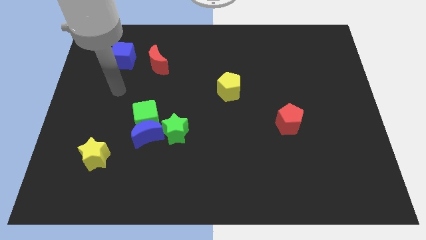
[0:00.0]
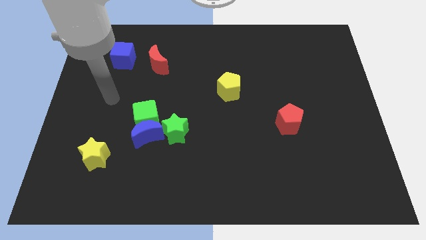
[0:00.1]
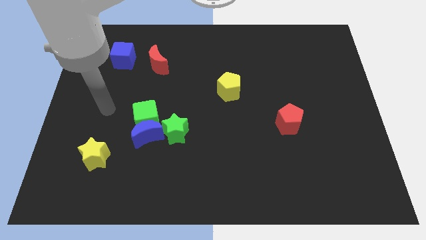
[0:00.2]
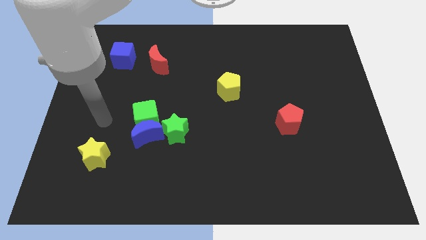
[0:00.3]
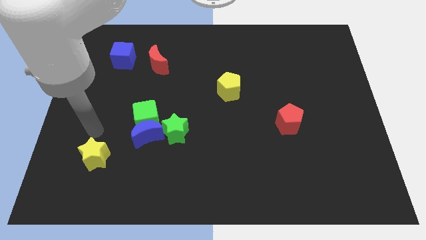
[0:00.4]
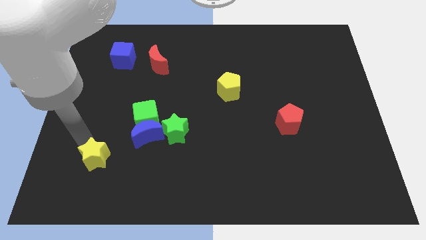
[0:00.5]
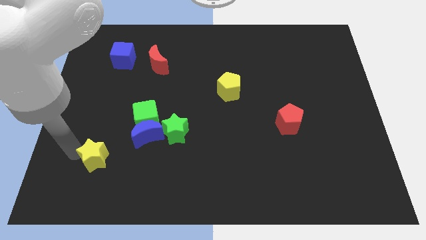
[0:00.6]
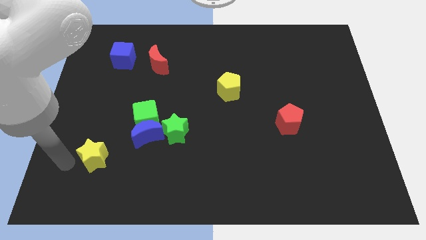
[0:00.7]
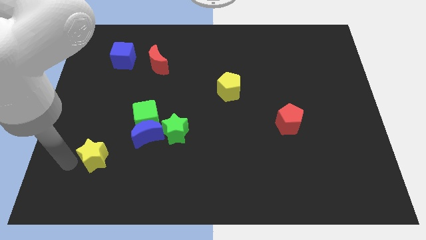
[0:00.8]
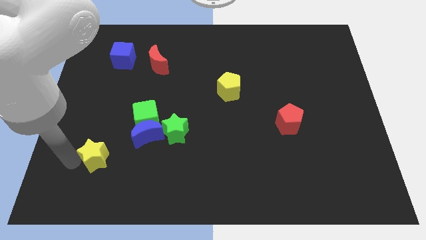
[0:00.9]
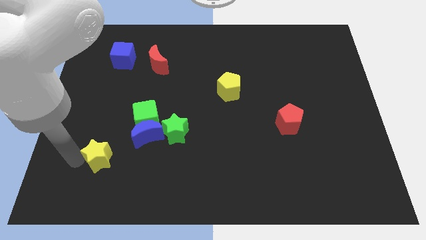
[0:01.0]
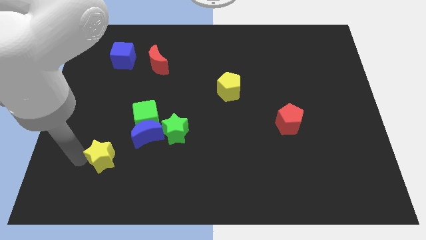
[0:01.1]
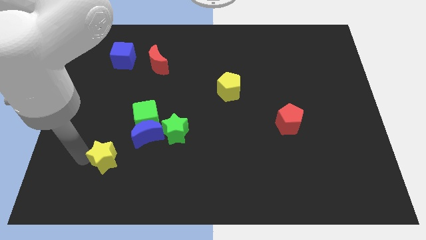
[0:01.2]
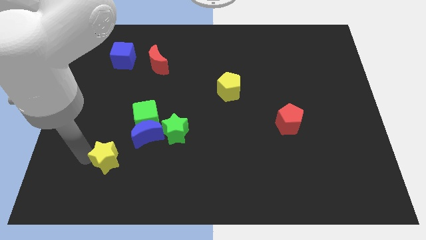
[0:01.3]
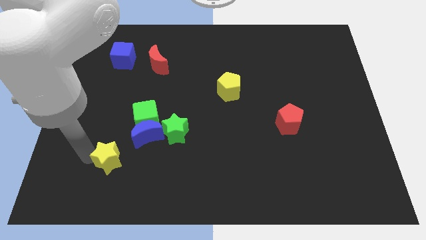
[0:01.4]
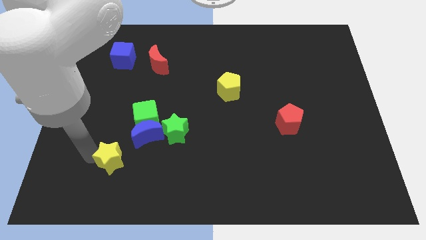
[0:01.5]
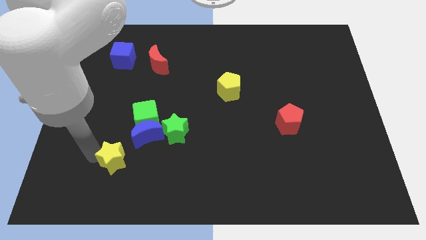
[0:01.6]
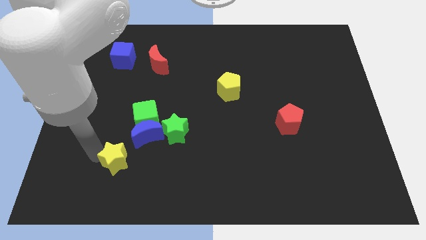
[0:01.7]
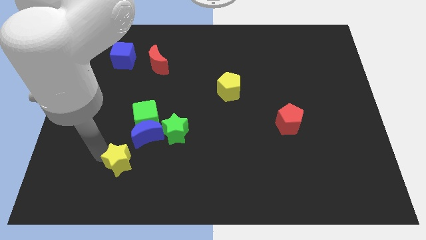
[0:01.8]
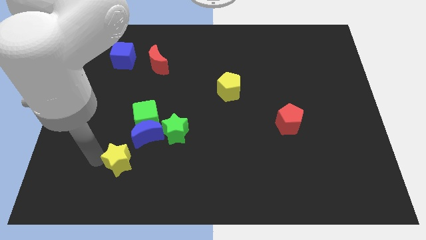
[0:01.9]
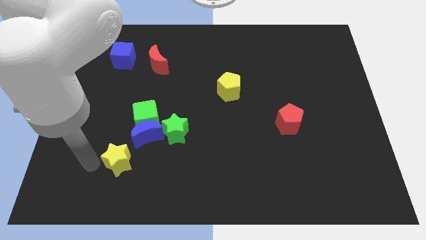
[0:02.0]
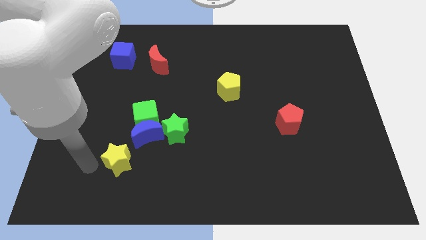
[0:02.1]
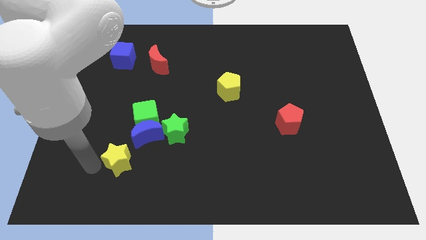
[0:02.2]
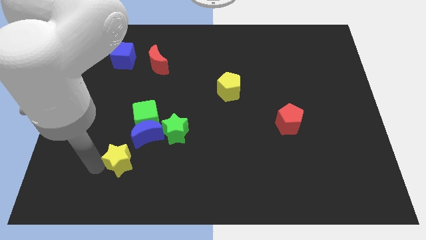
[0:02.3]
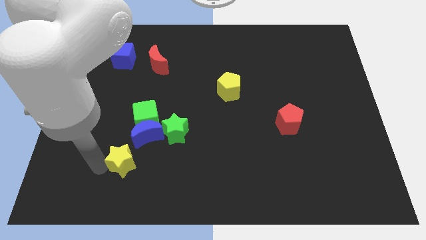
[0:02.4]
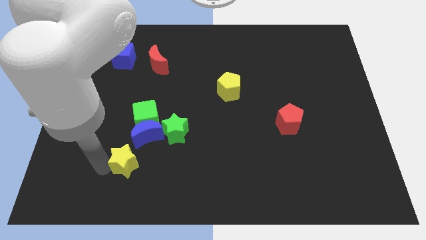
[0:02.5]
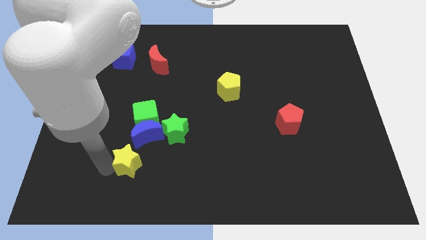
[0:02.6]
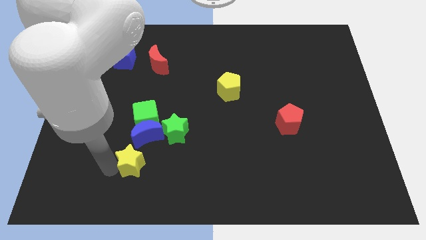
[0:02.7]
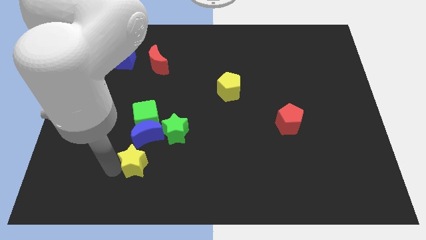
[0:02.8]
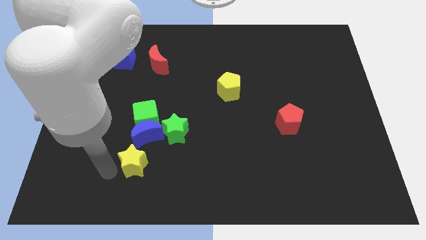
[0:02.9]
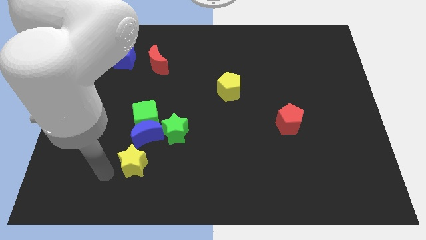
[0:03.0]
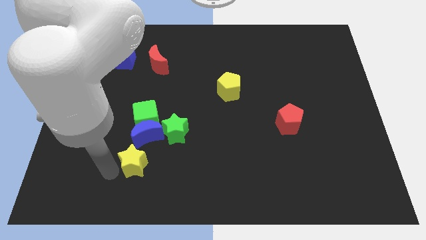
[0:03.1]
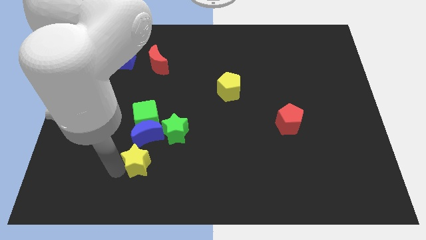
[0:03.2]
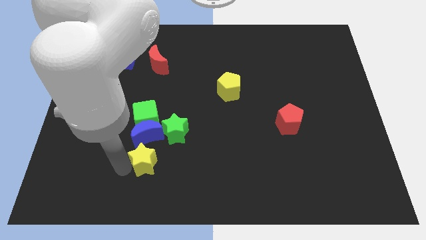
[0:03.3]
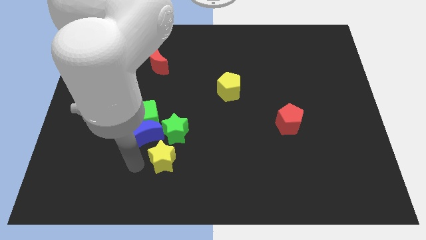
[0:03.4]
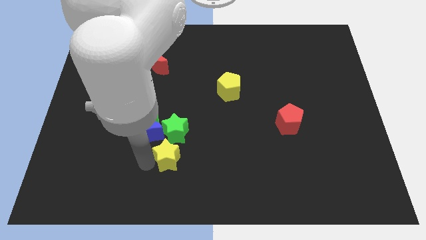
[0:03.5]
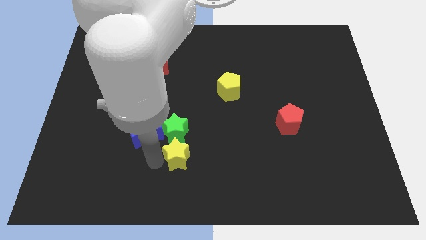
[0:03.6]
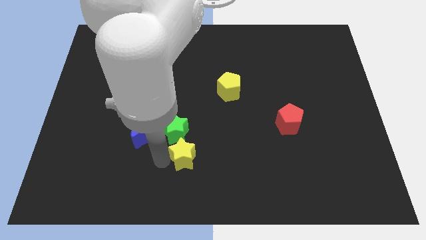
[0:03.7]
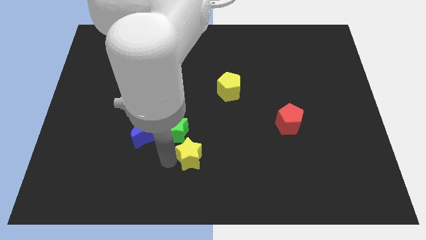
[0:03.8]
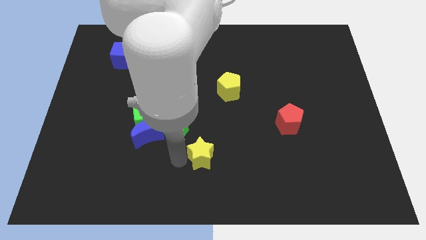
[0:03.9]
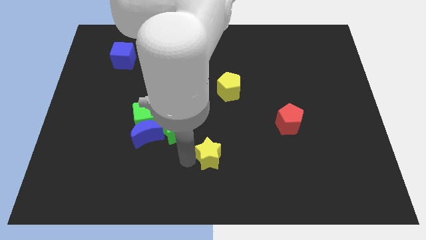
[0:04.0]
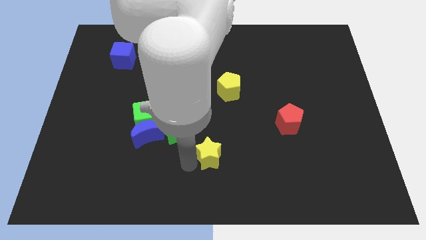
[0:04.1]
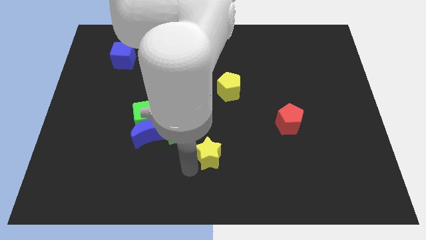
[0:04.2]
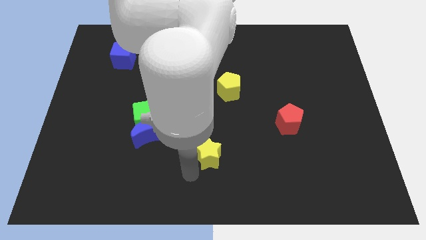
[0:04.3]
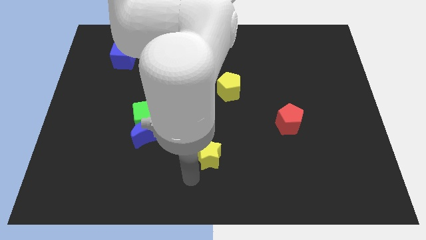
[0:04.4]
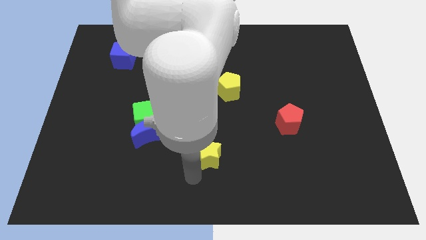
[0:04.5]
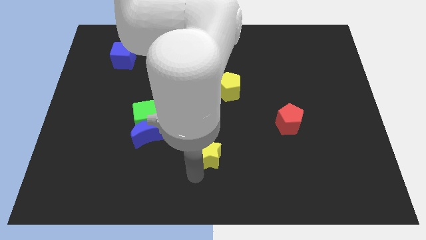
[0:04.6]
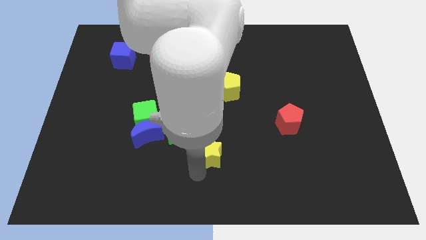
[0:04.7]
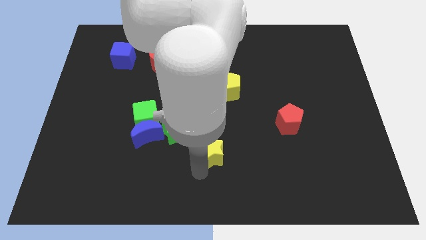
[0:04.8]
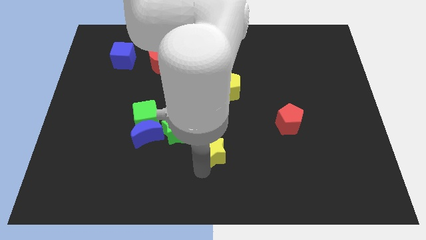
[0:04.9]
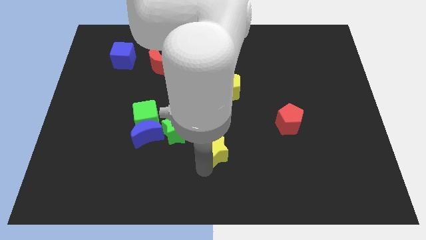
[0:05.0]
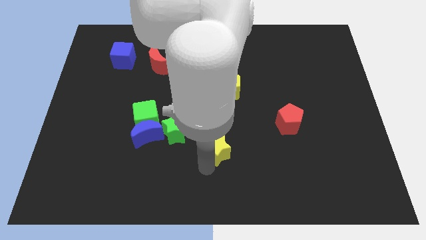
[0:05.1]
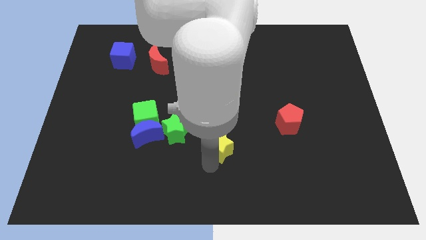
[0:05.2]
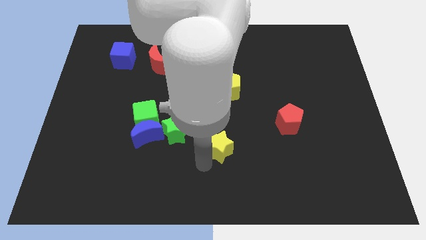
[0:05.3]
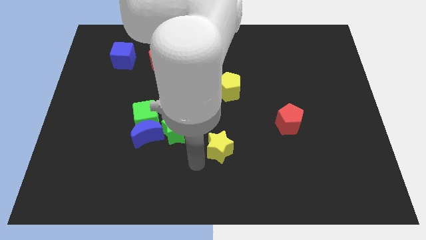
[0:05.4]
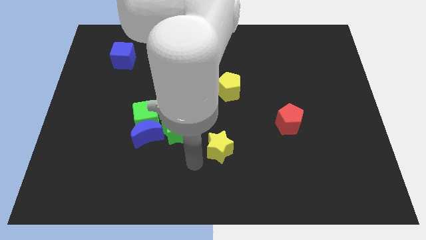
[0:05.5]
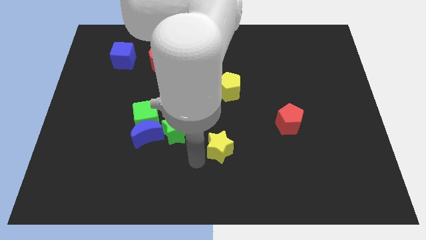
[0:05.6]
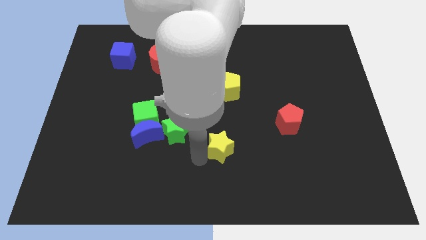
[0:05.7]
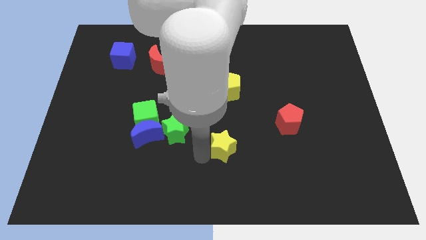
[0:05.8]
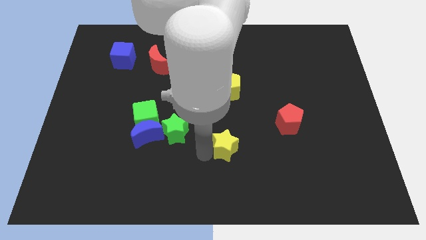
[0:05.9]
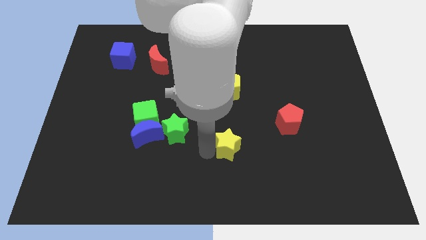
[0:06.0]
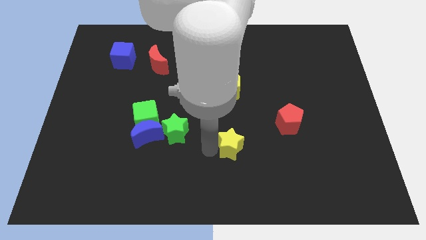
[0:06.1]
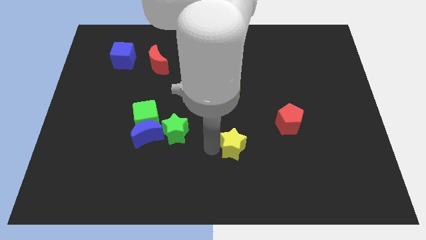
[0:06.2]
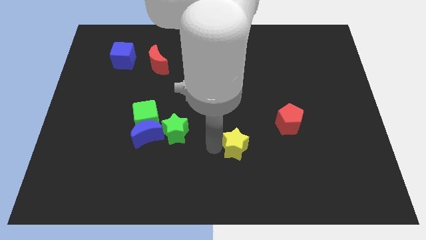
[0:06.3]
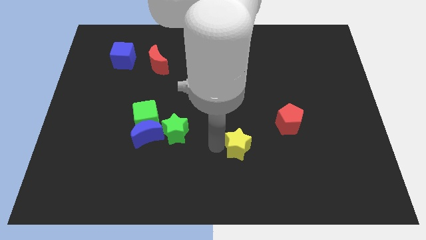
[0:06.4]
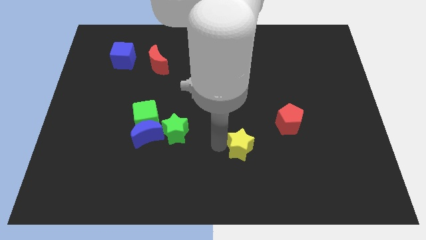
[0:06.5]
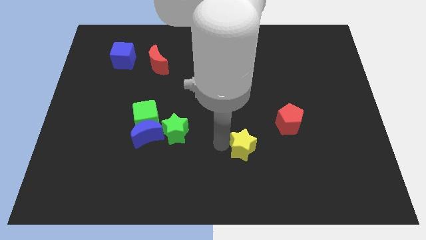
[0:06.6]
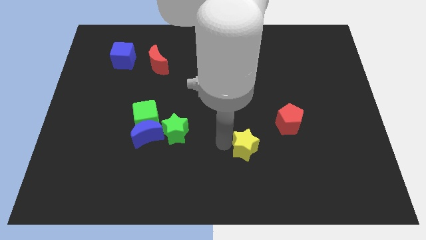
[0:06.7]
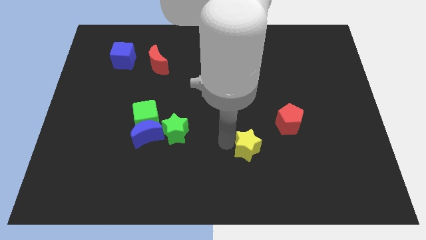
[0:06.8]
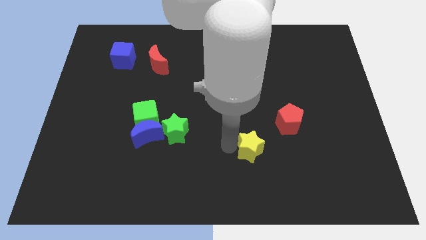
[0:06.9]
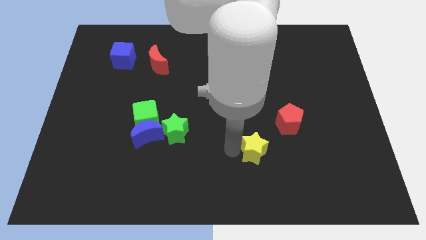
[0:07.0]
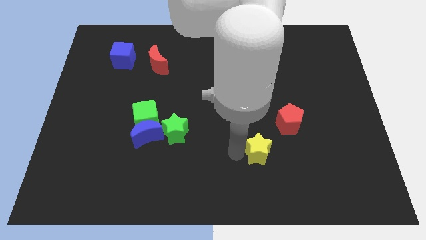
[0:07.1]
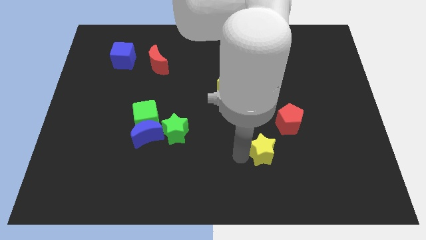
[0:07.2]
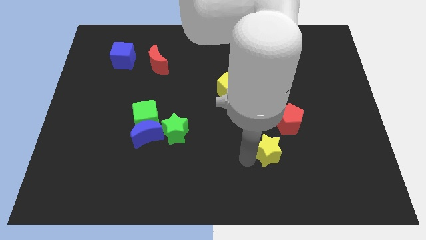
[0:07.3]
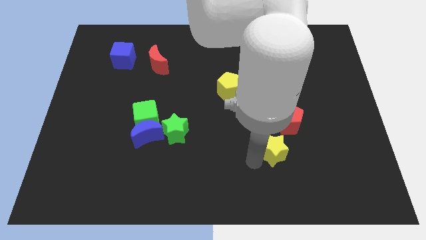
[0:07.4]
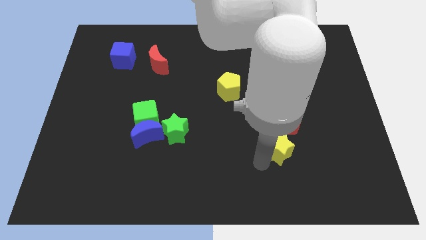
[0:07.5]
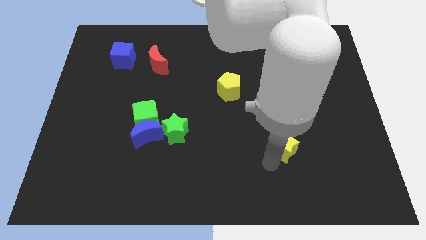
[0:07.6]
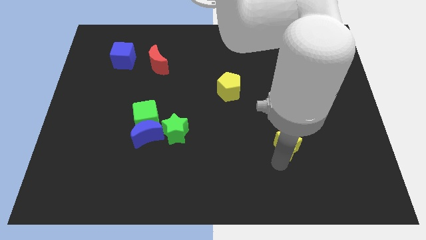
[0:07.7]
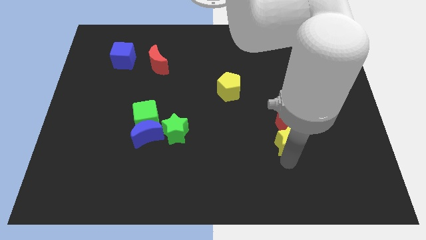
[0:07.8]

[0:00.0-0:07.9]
push the yellow star close to the red pentagon
